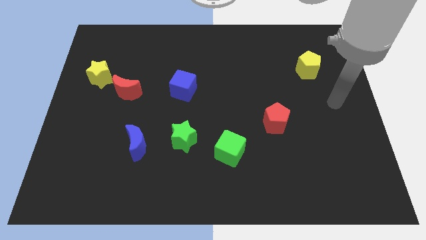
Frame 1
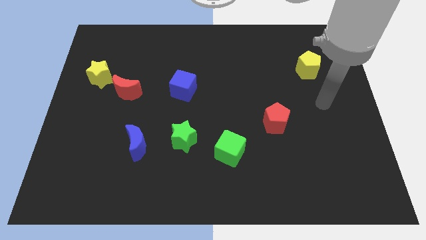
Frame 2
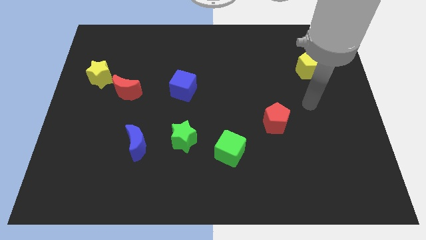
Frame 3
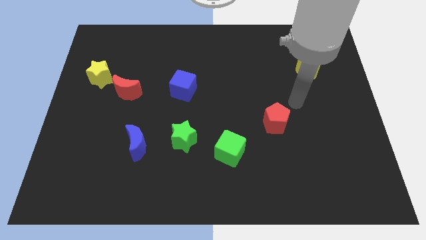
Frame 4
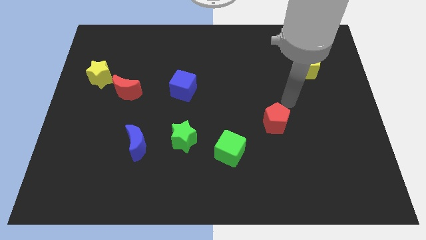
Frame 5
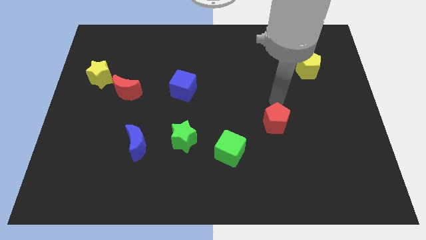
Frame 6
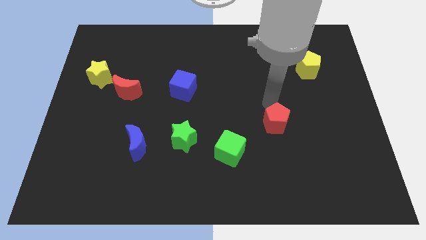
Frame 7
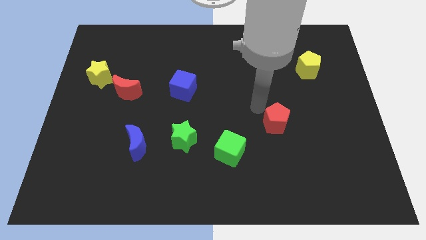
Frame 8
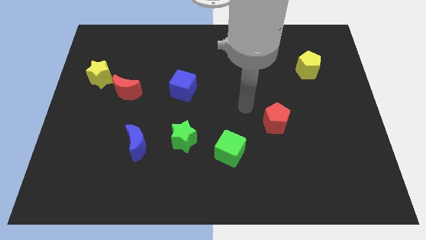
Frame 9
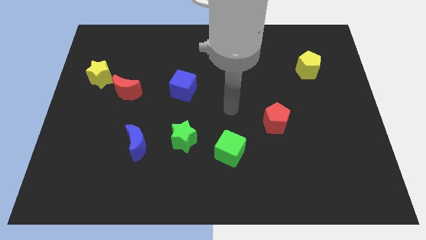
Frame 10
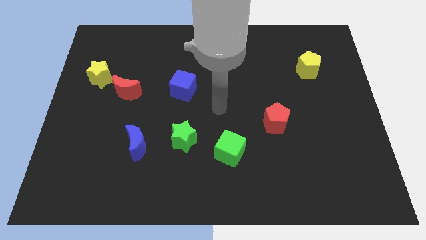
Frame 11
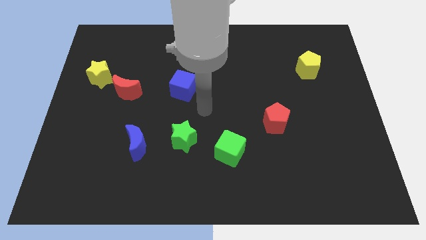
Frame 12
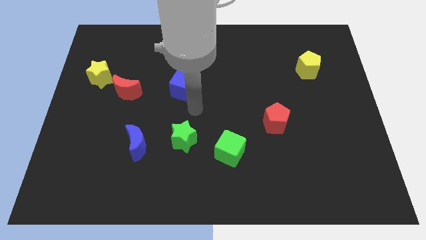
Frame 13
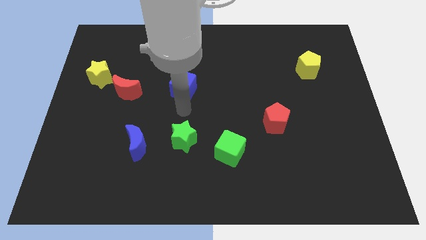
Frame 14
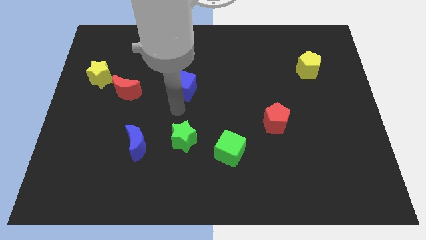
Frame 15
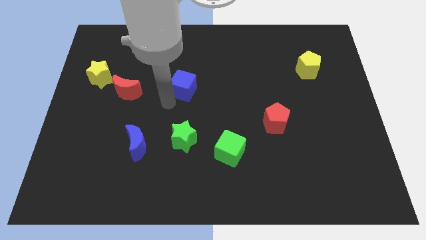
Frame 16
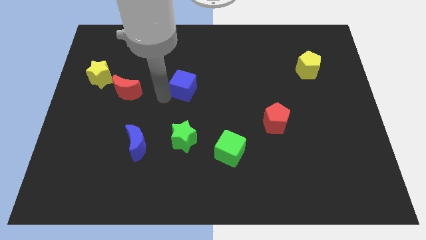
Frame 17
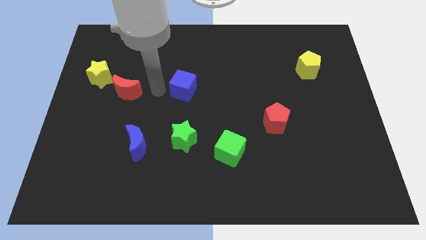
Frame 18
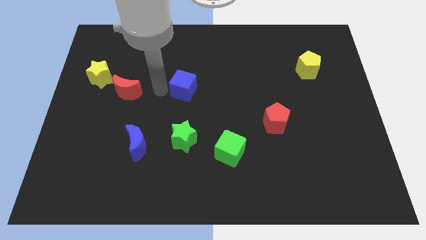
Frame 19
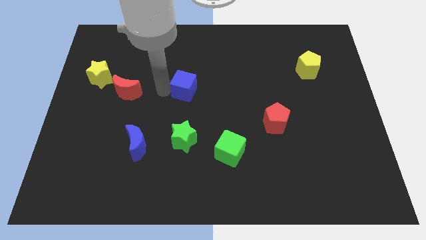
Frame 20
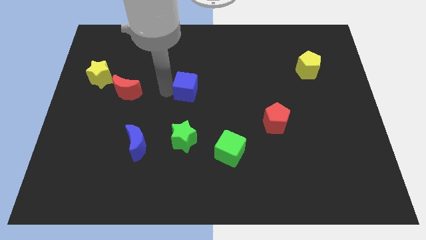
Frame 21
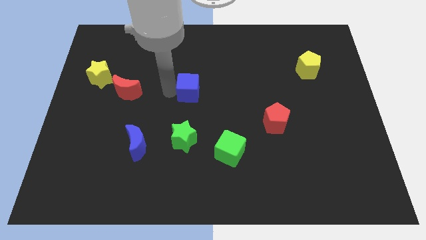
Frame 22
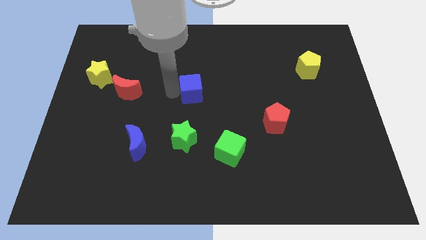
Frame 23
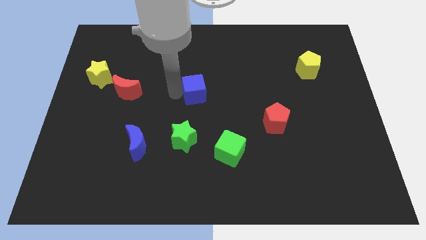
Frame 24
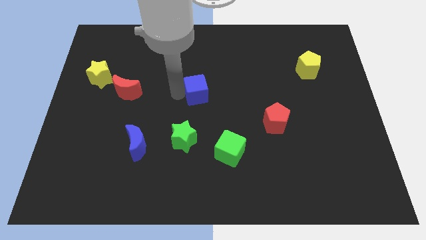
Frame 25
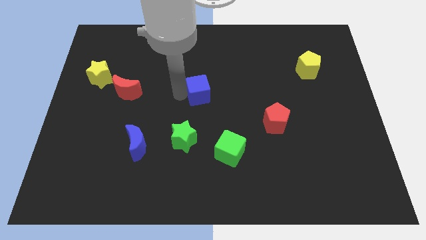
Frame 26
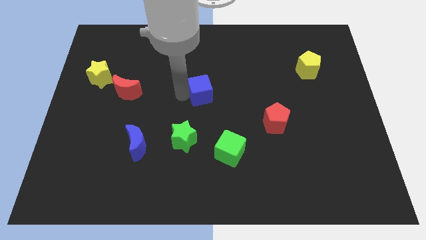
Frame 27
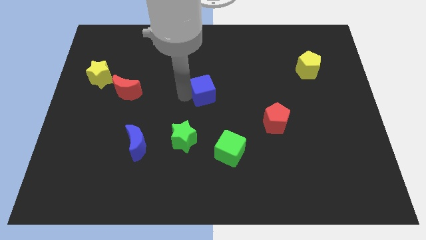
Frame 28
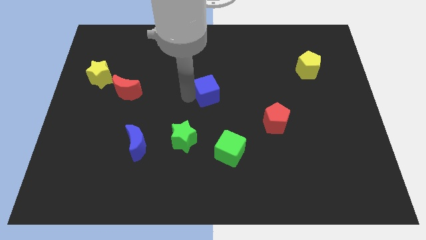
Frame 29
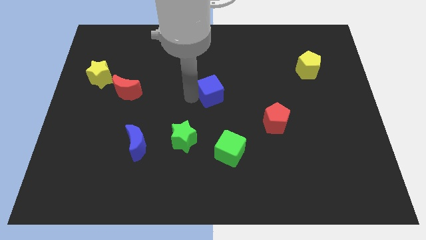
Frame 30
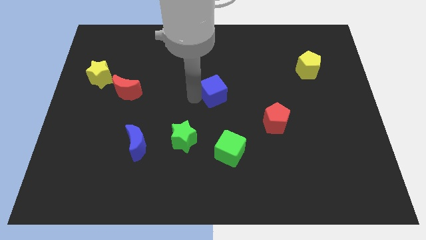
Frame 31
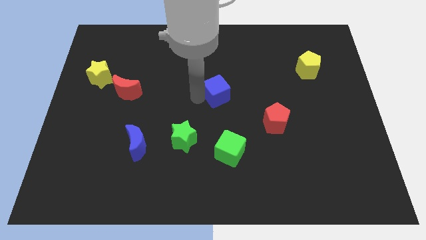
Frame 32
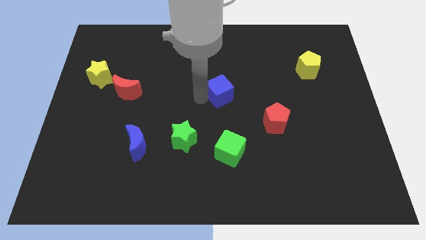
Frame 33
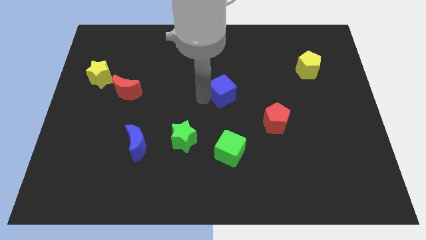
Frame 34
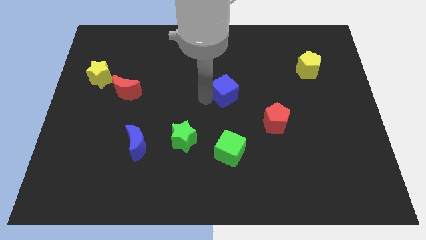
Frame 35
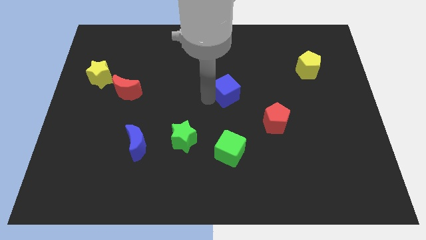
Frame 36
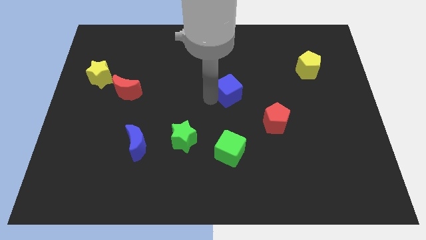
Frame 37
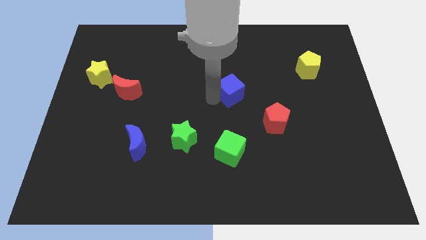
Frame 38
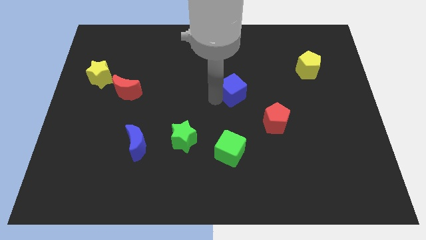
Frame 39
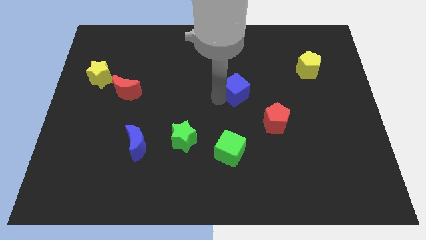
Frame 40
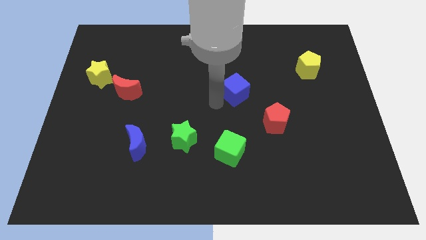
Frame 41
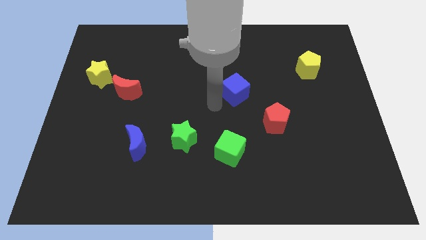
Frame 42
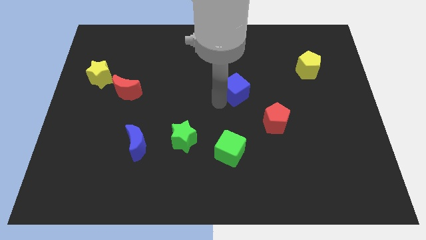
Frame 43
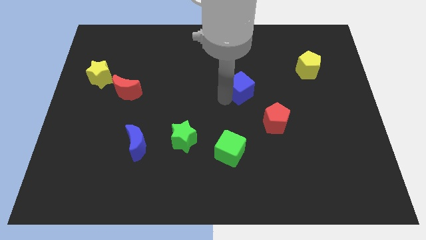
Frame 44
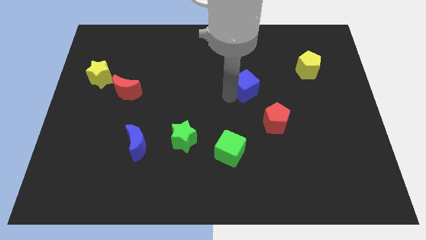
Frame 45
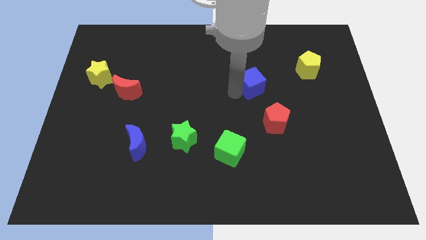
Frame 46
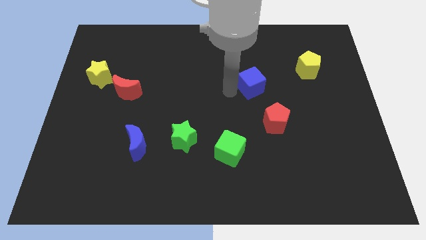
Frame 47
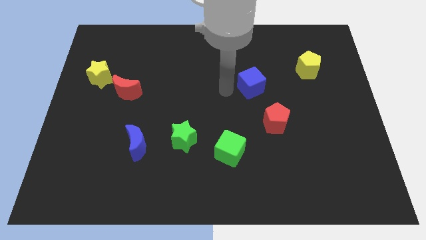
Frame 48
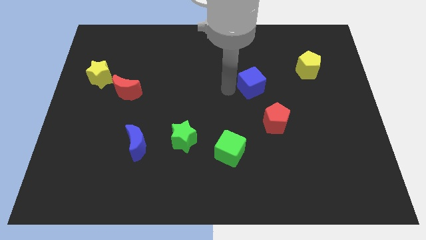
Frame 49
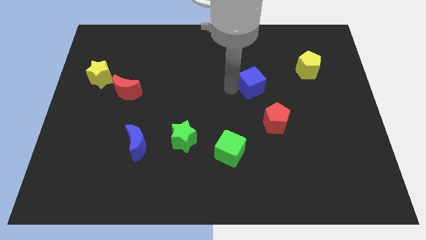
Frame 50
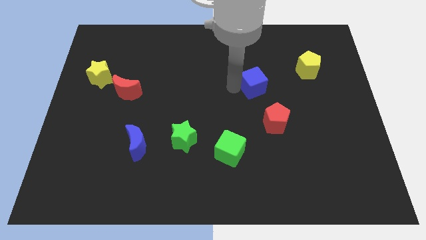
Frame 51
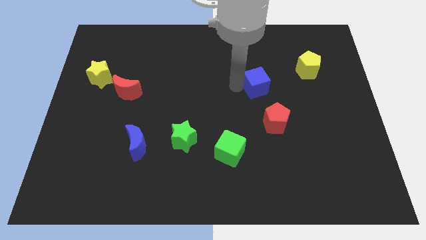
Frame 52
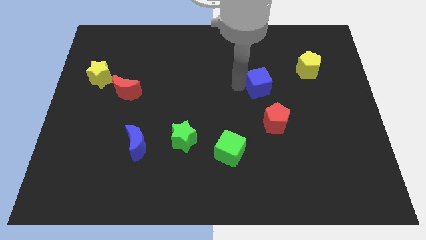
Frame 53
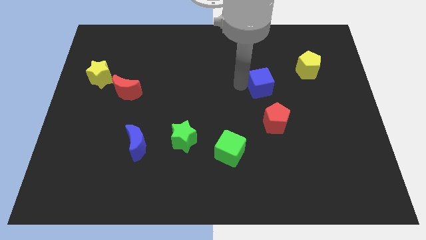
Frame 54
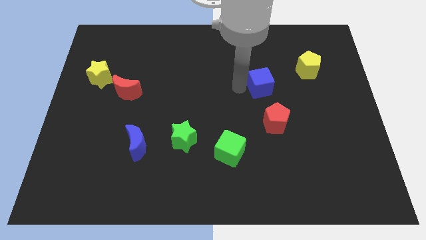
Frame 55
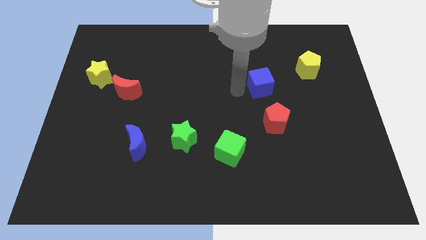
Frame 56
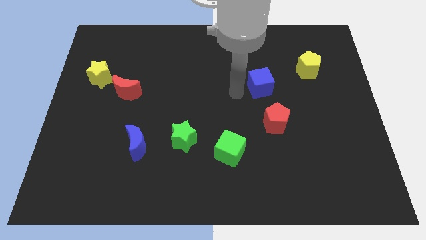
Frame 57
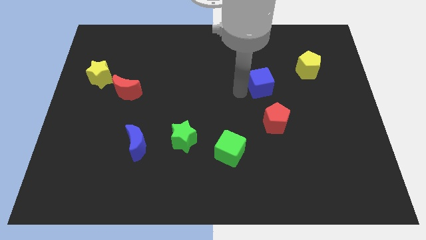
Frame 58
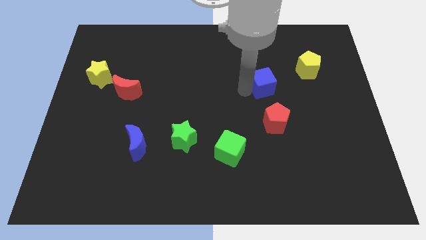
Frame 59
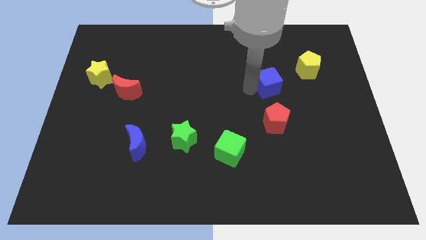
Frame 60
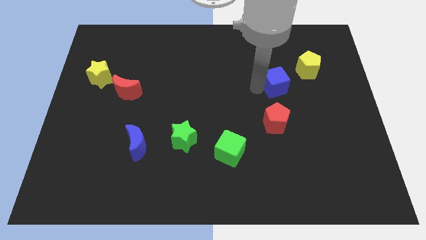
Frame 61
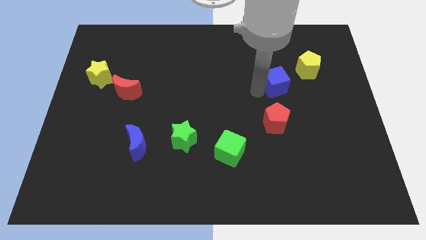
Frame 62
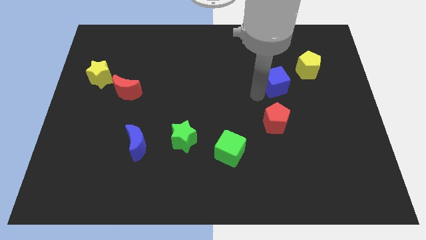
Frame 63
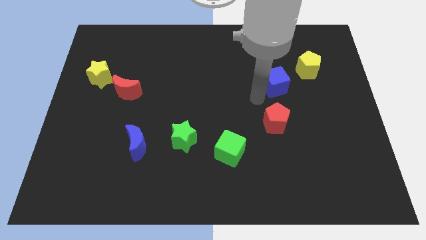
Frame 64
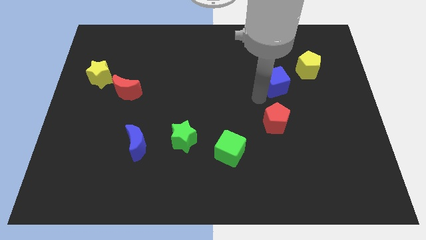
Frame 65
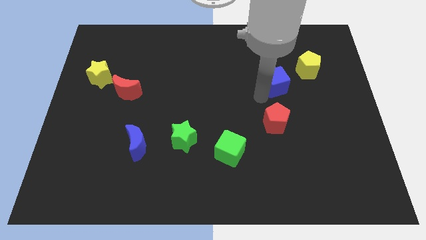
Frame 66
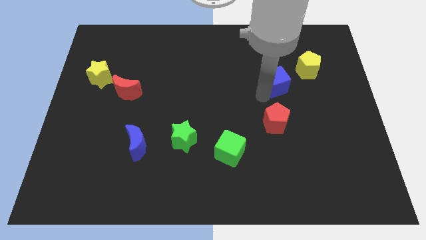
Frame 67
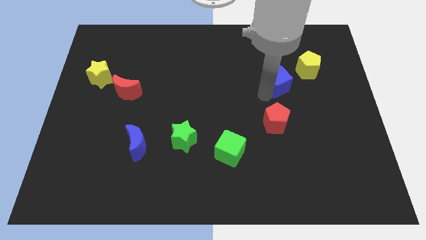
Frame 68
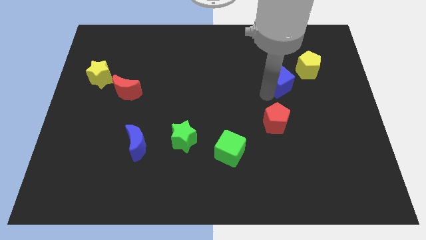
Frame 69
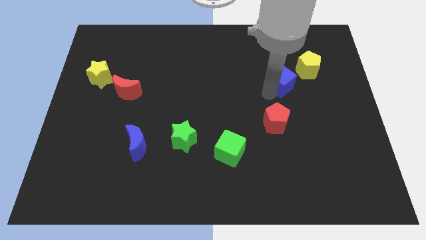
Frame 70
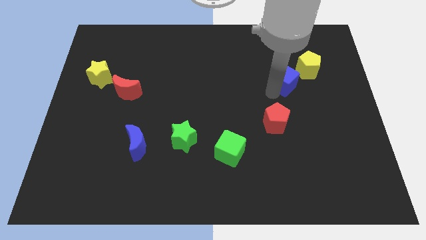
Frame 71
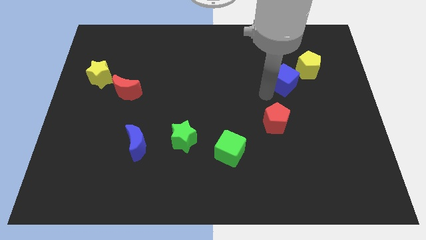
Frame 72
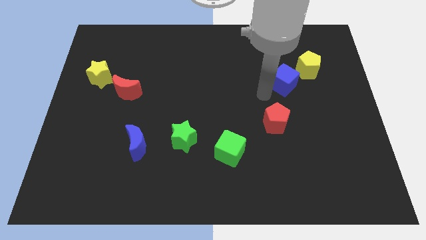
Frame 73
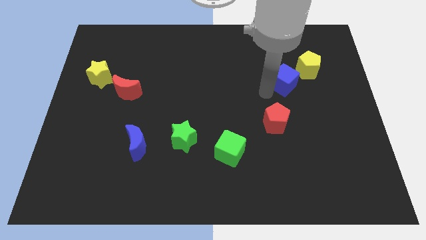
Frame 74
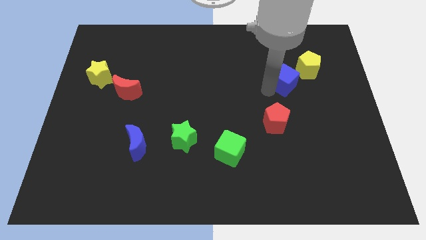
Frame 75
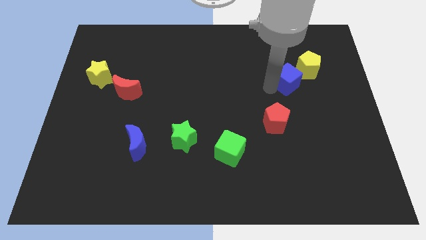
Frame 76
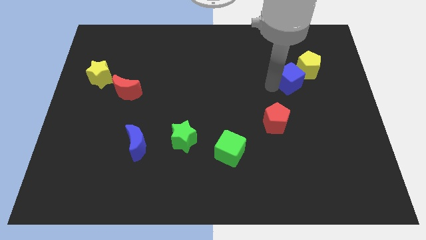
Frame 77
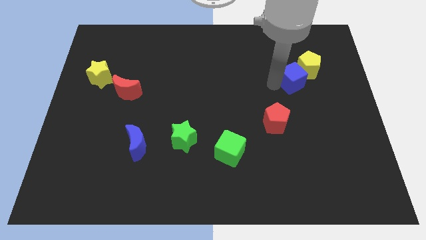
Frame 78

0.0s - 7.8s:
put the blue cube next to the yellow pentagon
